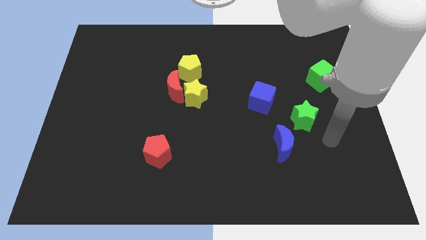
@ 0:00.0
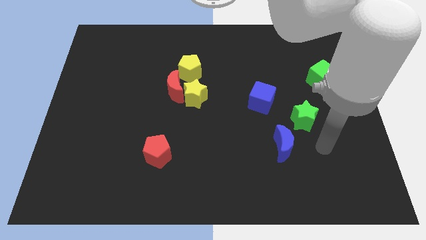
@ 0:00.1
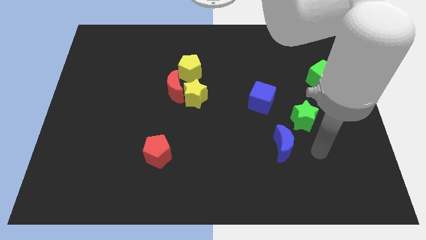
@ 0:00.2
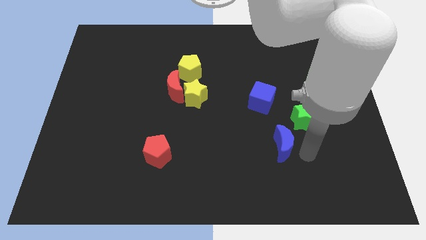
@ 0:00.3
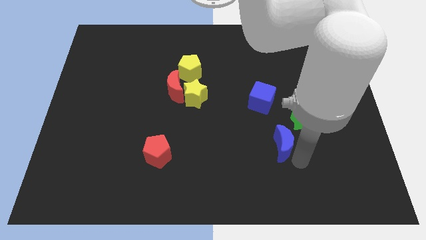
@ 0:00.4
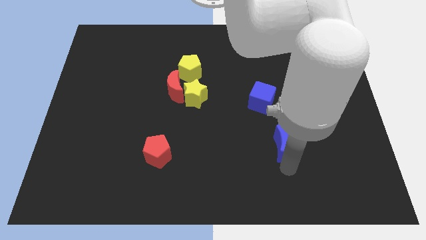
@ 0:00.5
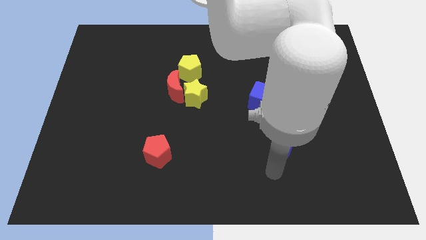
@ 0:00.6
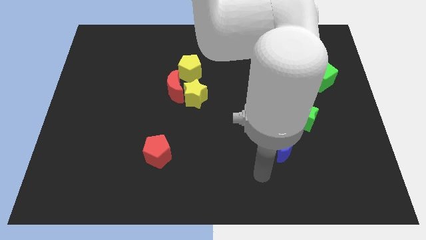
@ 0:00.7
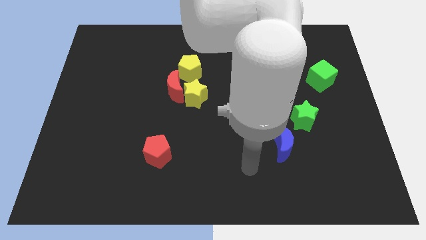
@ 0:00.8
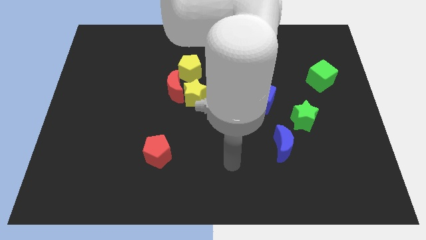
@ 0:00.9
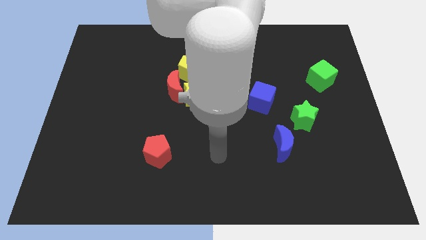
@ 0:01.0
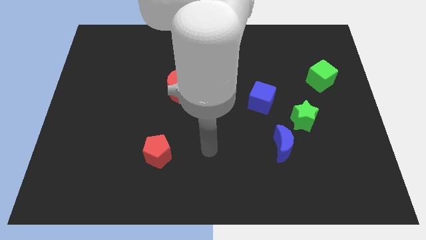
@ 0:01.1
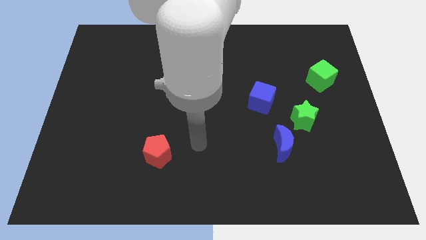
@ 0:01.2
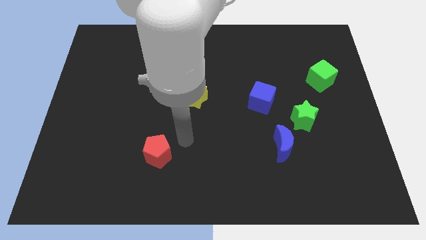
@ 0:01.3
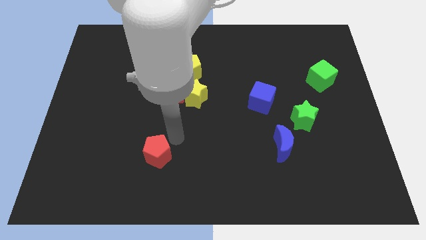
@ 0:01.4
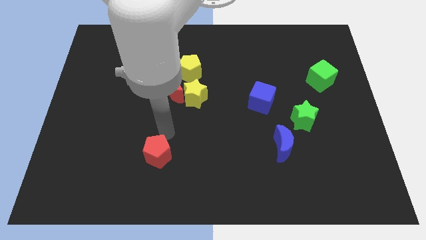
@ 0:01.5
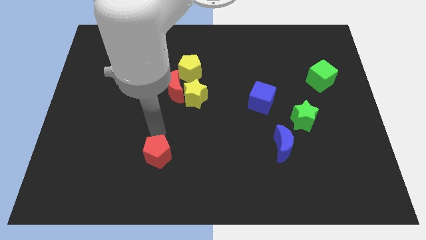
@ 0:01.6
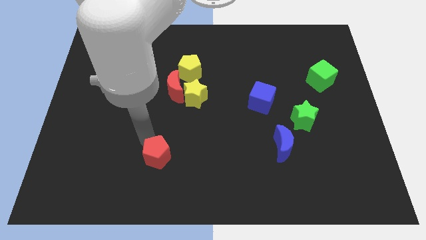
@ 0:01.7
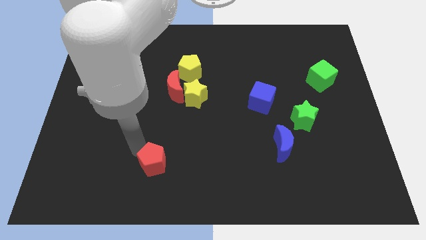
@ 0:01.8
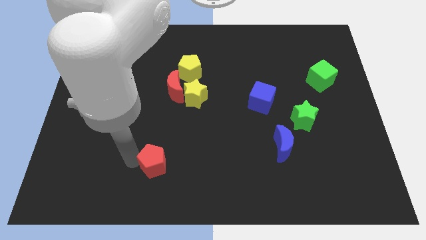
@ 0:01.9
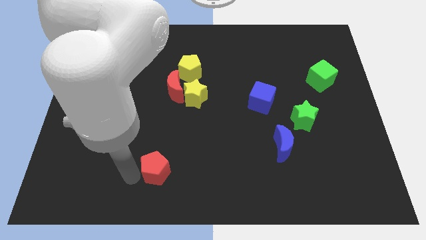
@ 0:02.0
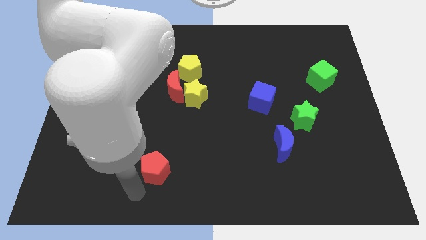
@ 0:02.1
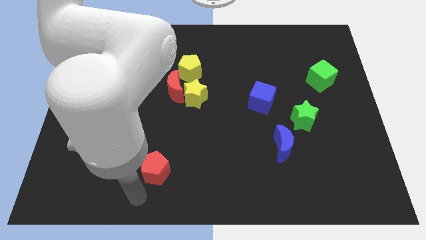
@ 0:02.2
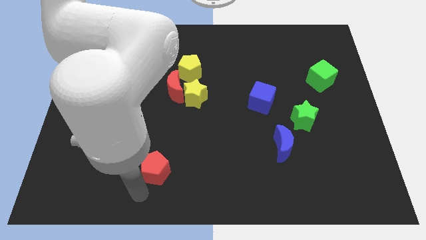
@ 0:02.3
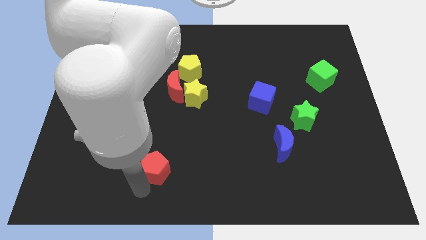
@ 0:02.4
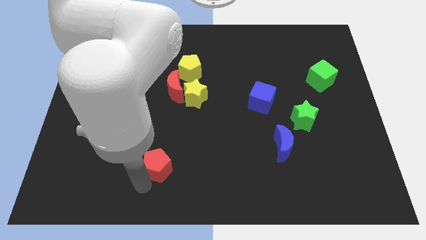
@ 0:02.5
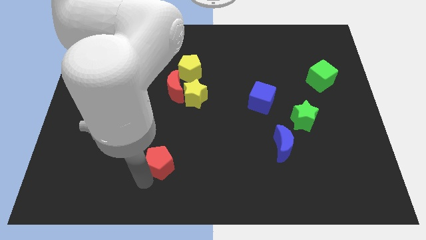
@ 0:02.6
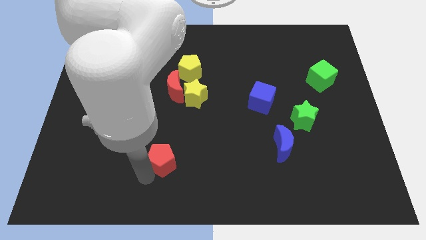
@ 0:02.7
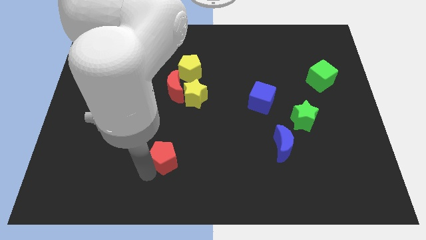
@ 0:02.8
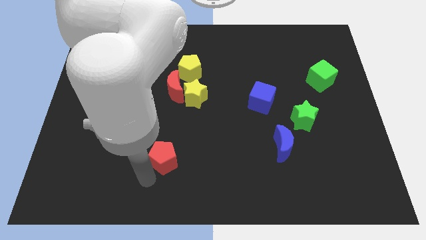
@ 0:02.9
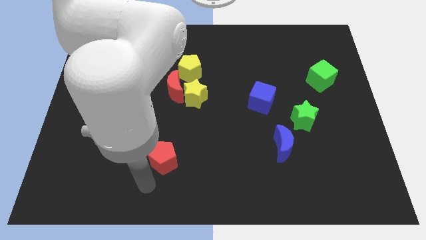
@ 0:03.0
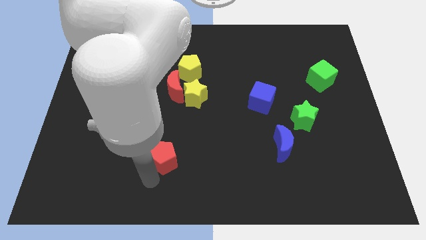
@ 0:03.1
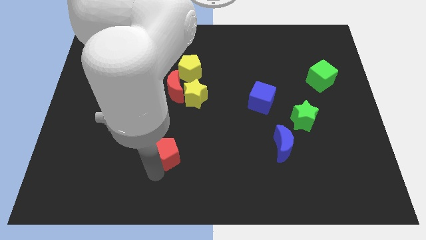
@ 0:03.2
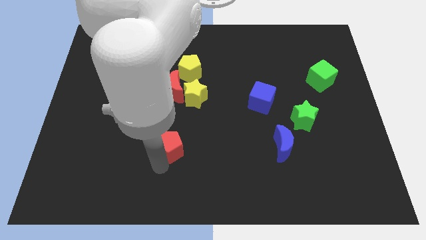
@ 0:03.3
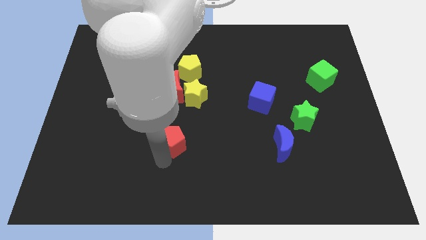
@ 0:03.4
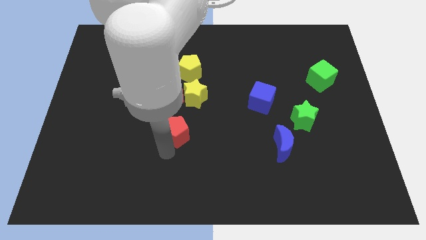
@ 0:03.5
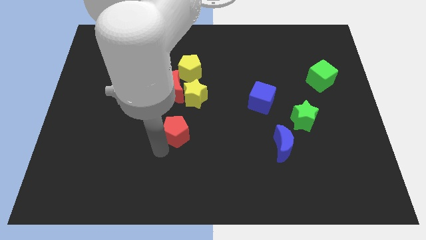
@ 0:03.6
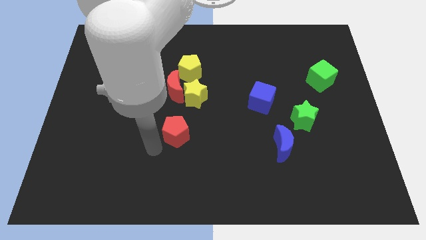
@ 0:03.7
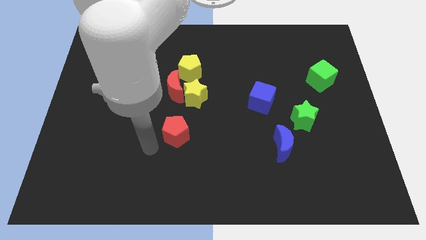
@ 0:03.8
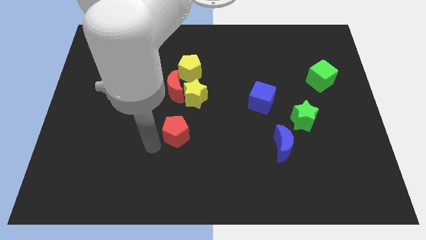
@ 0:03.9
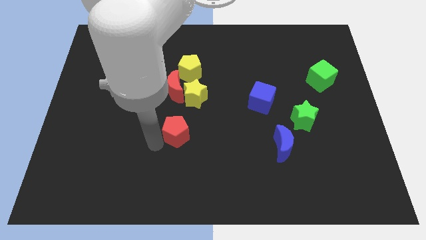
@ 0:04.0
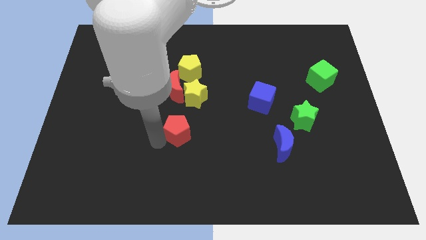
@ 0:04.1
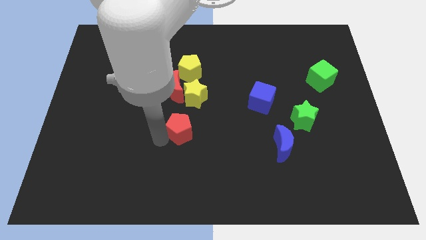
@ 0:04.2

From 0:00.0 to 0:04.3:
slightly push the red pentagon diagonally up and right

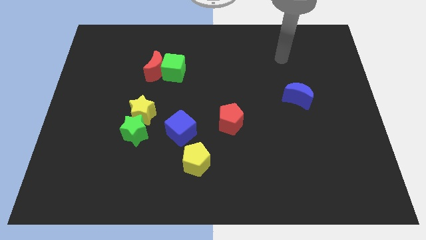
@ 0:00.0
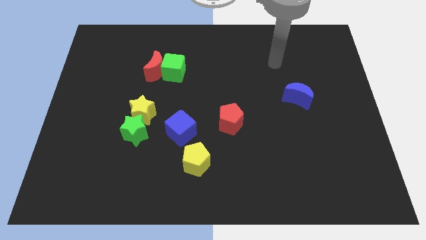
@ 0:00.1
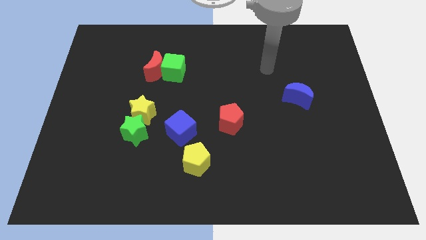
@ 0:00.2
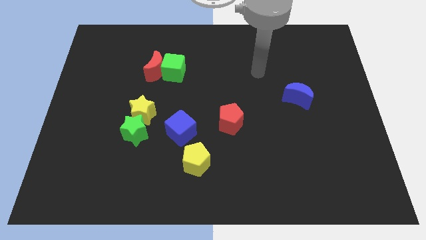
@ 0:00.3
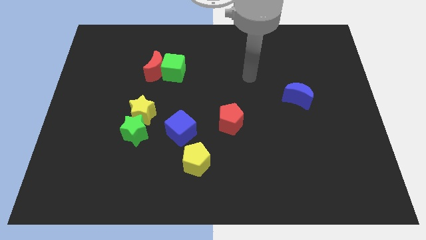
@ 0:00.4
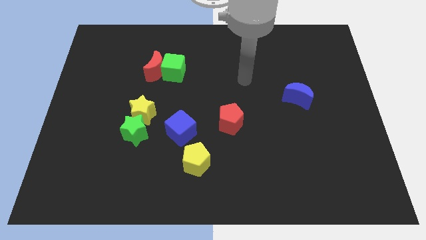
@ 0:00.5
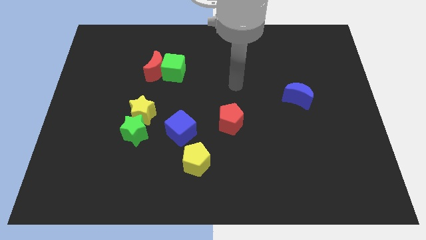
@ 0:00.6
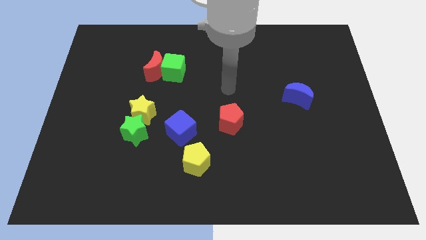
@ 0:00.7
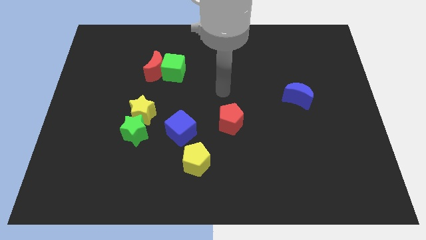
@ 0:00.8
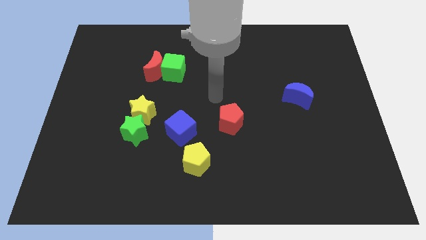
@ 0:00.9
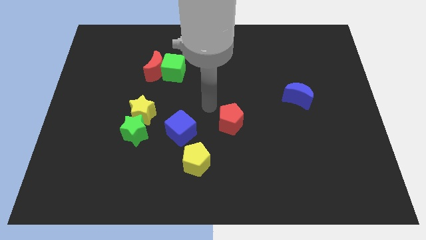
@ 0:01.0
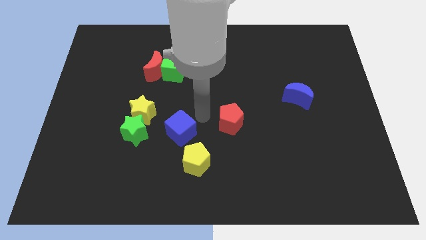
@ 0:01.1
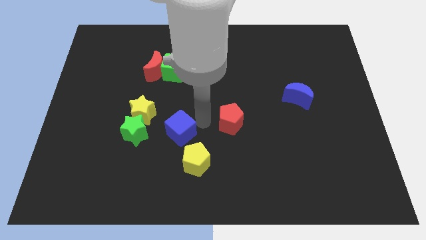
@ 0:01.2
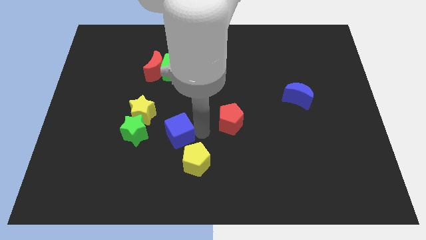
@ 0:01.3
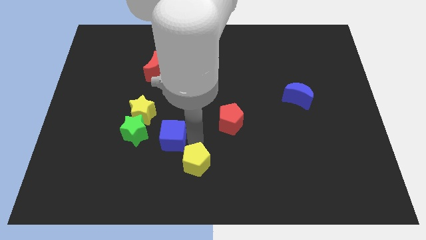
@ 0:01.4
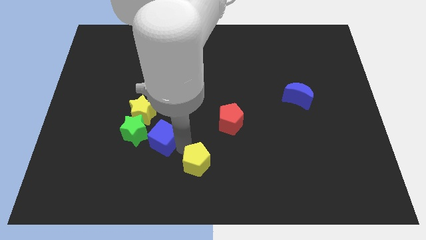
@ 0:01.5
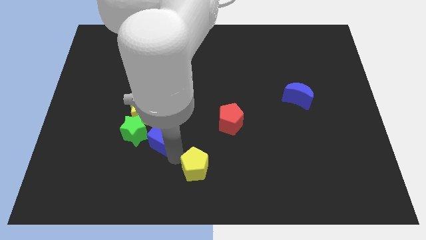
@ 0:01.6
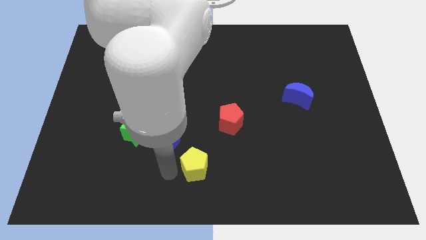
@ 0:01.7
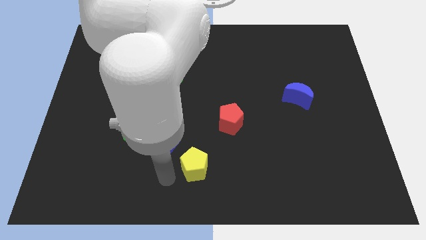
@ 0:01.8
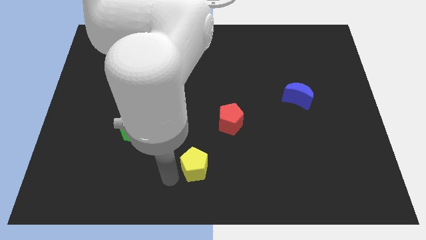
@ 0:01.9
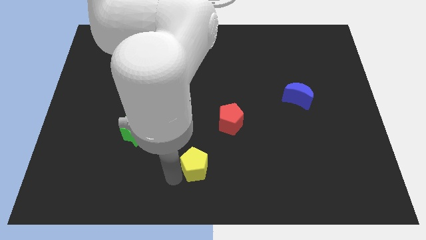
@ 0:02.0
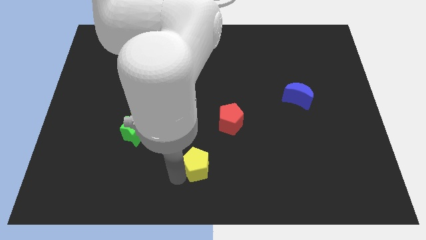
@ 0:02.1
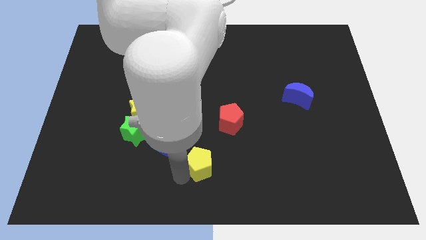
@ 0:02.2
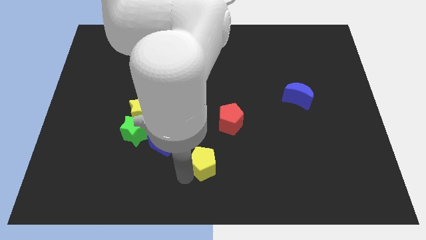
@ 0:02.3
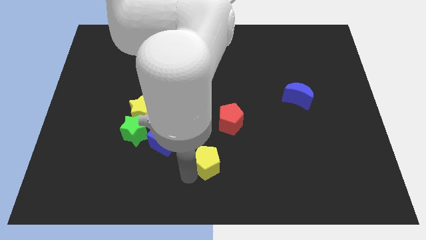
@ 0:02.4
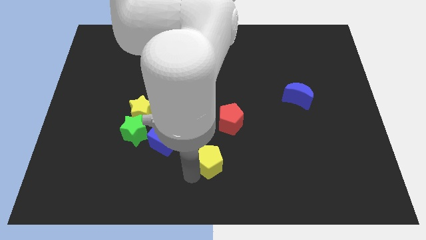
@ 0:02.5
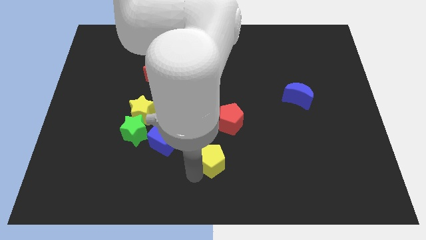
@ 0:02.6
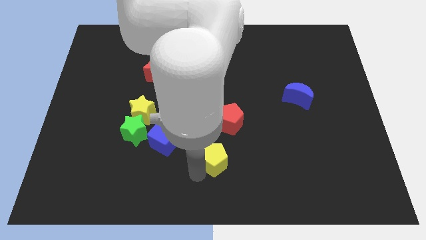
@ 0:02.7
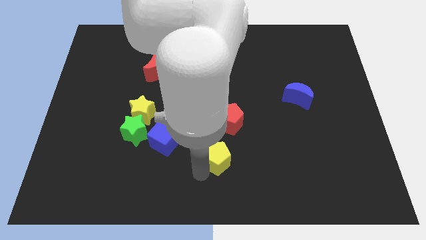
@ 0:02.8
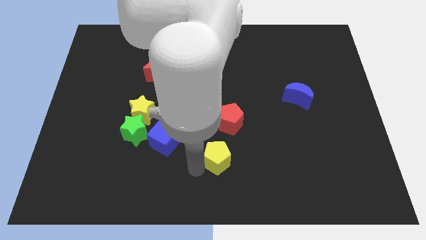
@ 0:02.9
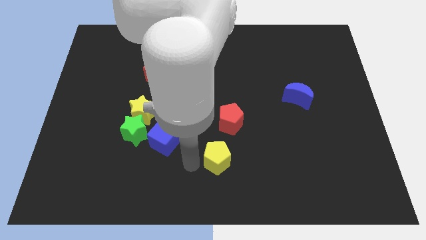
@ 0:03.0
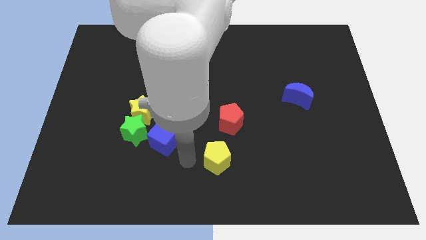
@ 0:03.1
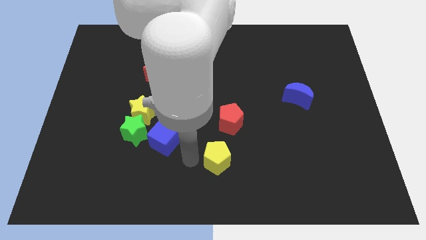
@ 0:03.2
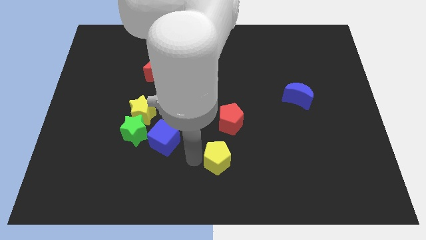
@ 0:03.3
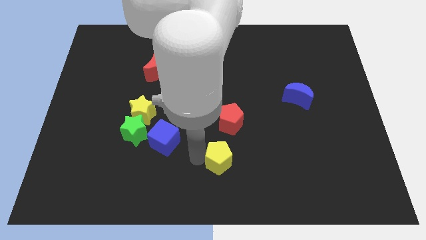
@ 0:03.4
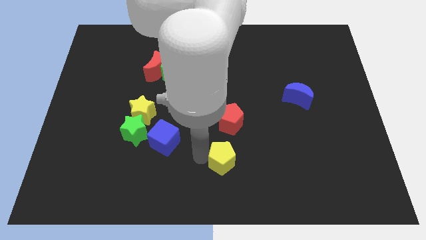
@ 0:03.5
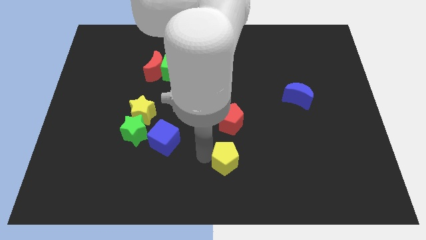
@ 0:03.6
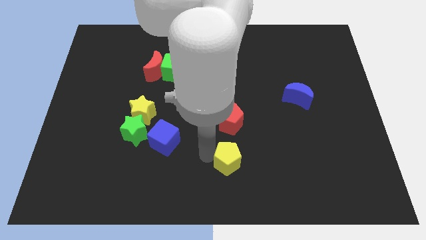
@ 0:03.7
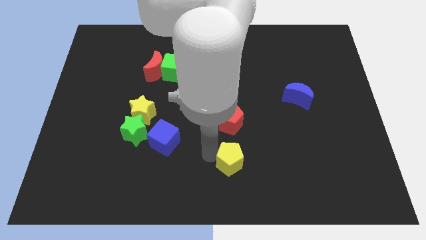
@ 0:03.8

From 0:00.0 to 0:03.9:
slightly push the yellow pentagon right

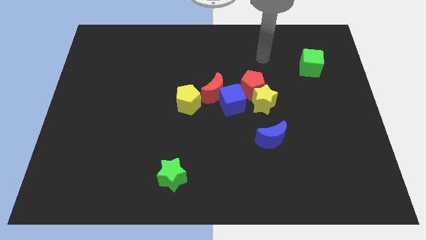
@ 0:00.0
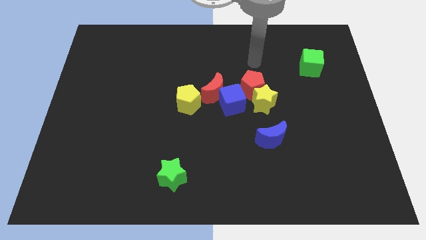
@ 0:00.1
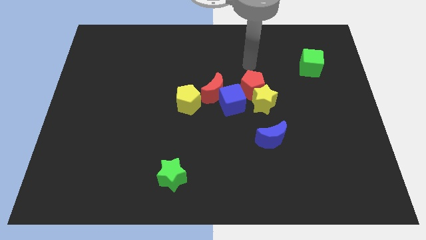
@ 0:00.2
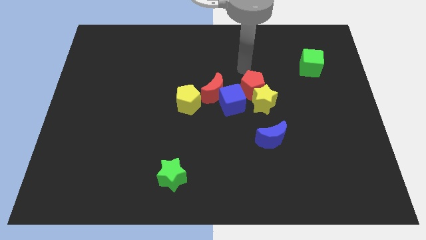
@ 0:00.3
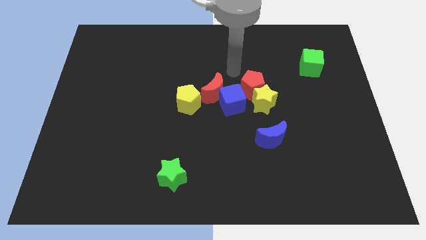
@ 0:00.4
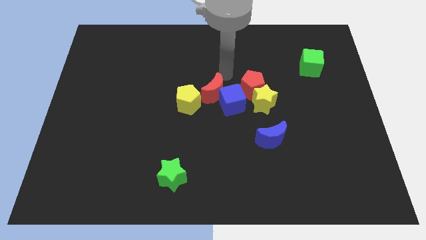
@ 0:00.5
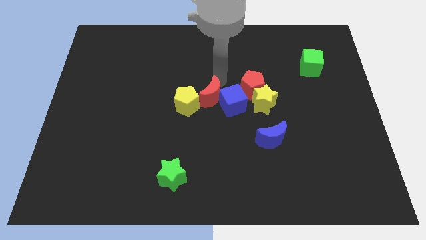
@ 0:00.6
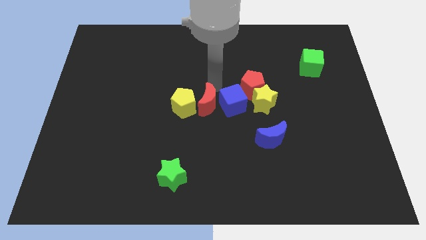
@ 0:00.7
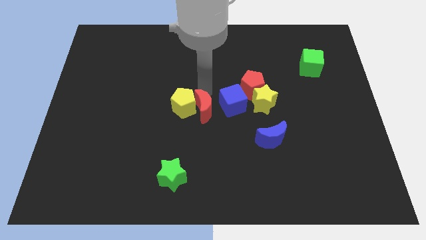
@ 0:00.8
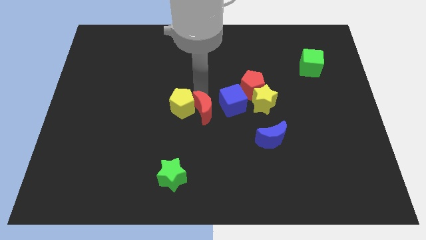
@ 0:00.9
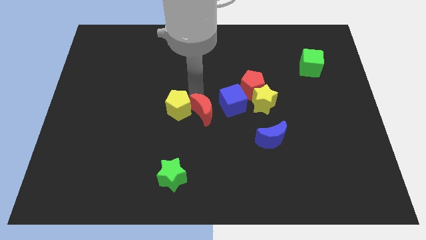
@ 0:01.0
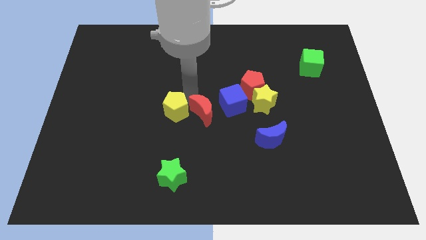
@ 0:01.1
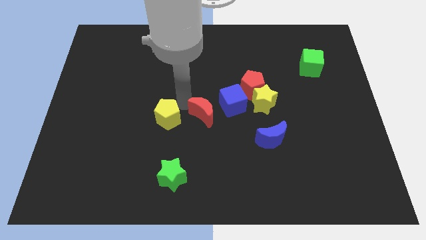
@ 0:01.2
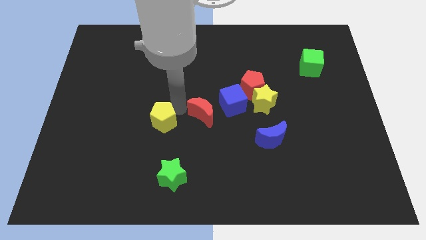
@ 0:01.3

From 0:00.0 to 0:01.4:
push the yellow pentagon slightly down and left diagonally
